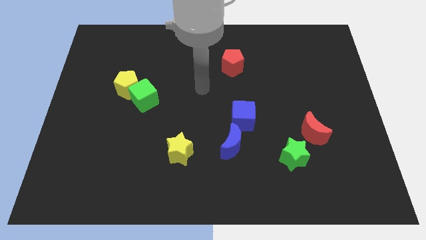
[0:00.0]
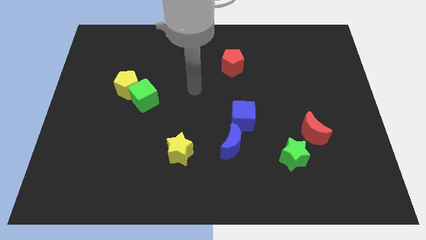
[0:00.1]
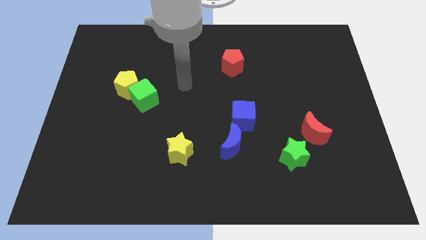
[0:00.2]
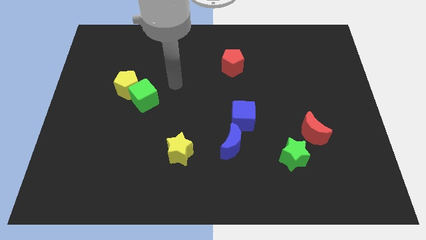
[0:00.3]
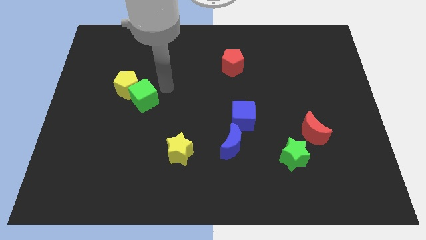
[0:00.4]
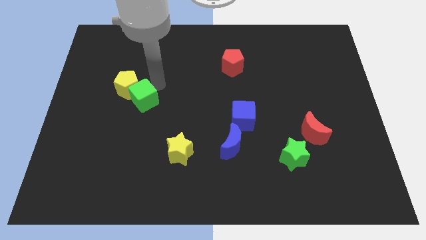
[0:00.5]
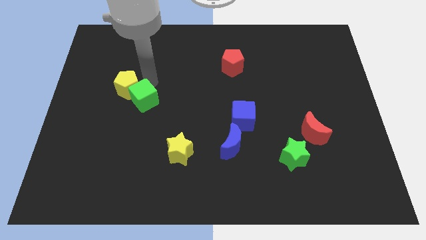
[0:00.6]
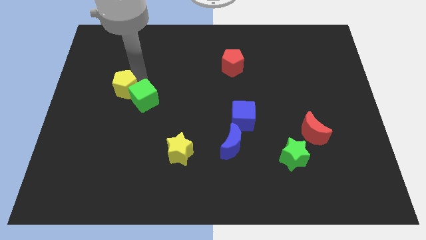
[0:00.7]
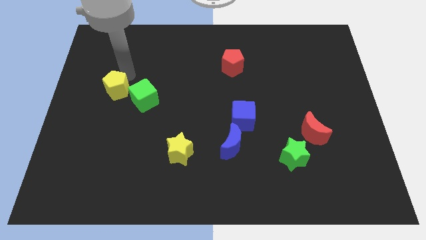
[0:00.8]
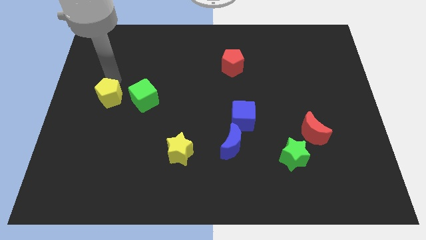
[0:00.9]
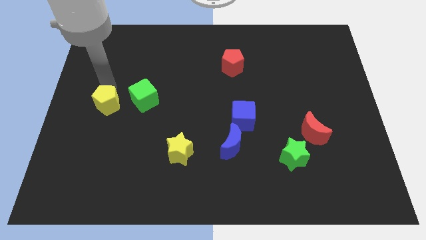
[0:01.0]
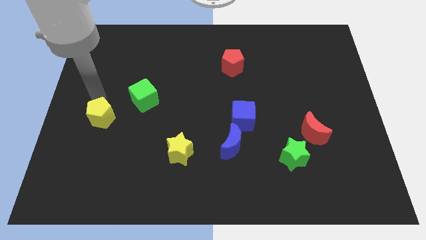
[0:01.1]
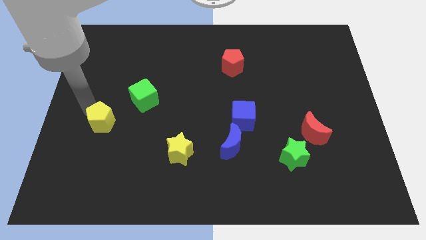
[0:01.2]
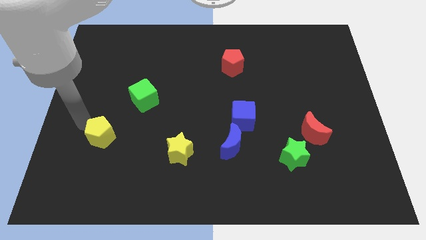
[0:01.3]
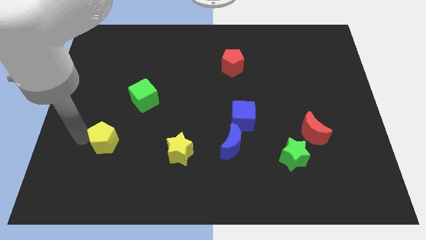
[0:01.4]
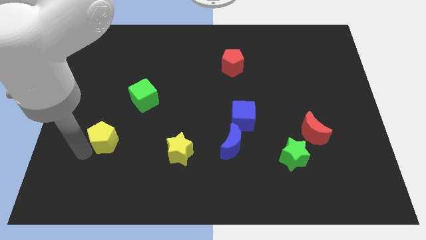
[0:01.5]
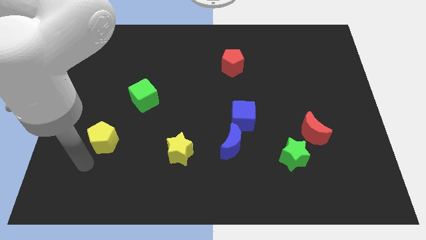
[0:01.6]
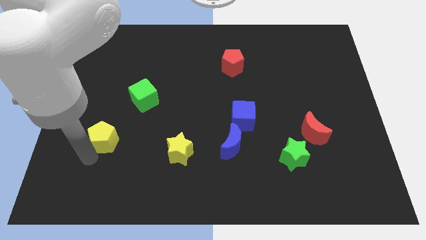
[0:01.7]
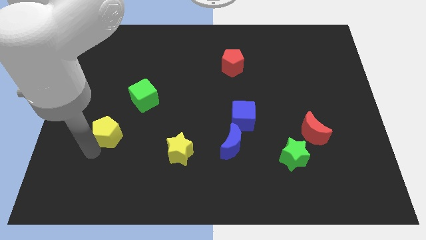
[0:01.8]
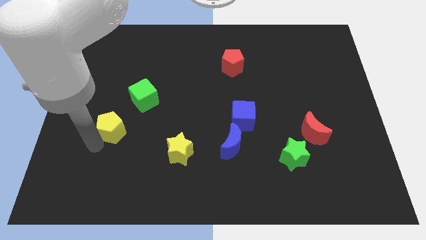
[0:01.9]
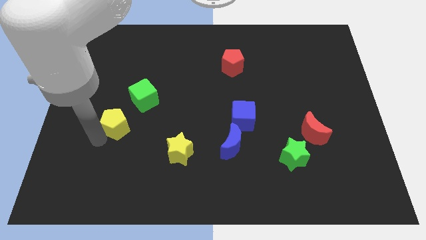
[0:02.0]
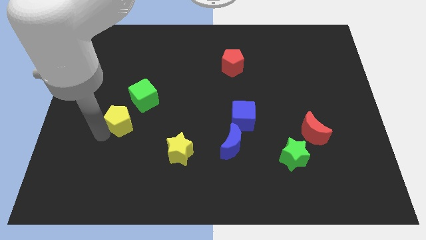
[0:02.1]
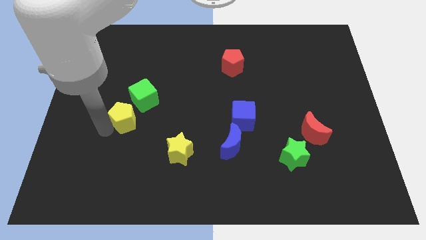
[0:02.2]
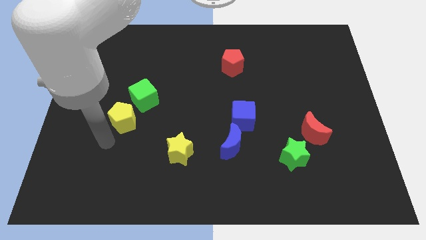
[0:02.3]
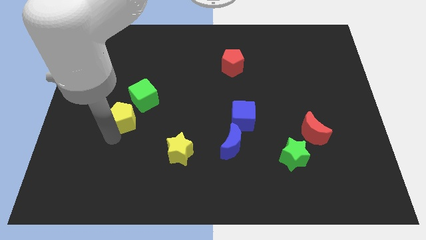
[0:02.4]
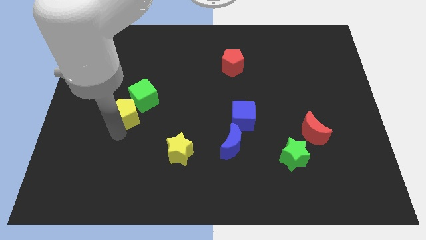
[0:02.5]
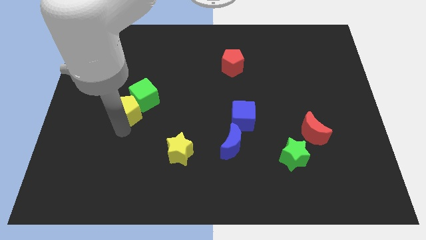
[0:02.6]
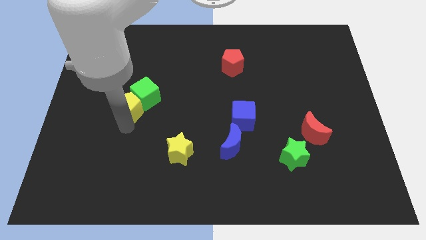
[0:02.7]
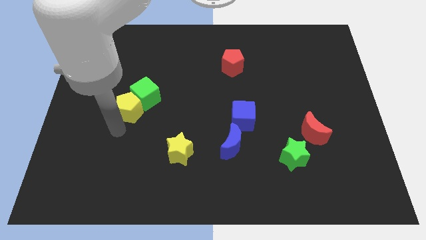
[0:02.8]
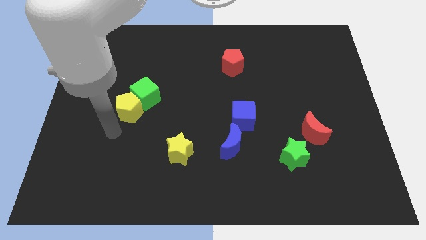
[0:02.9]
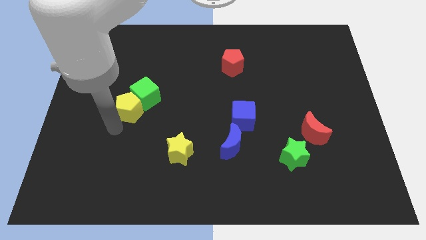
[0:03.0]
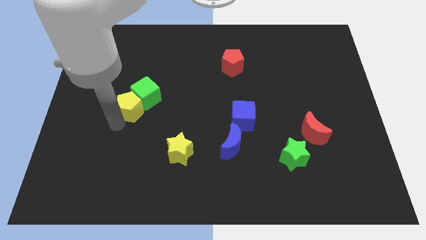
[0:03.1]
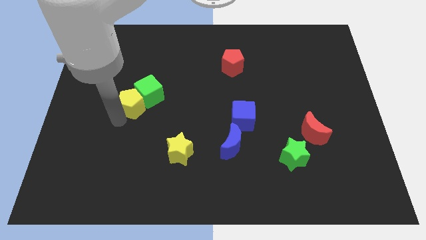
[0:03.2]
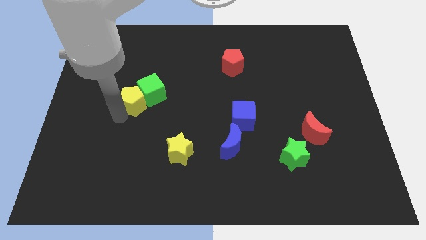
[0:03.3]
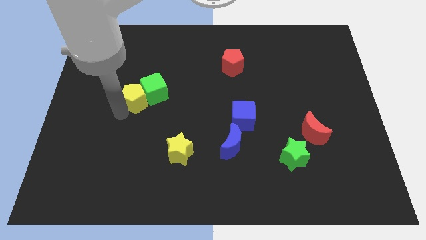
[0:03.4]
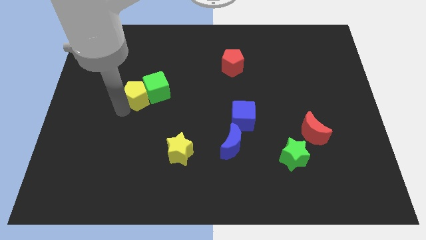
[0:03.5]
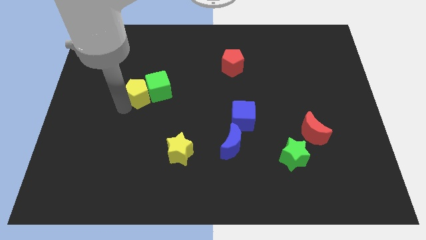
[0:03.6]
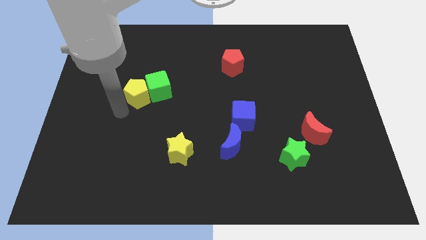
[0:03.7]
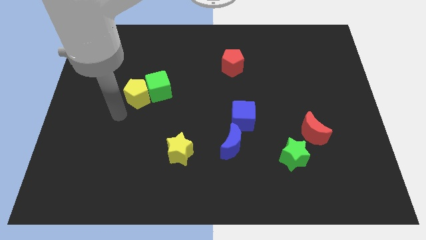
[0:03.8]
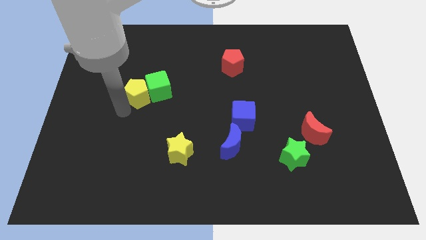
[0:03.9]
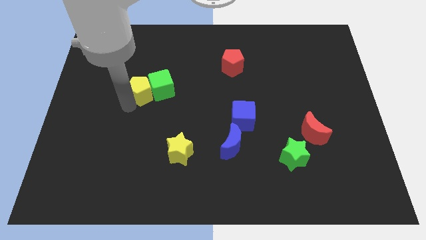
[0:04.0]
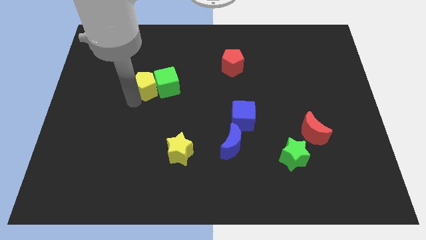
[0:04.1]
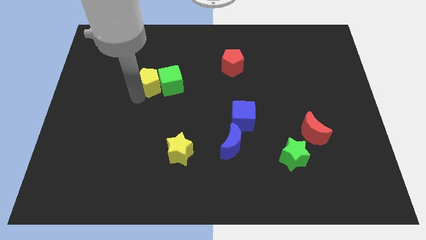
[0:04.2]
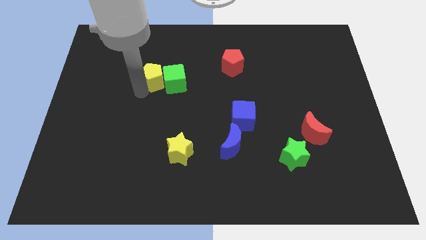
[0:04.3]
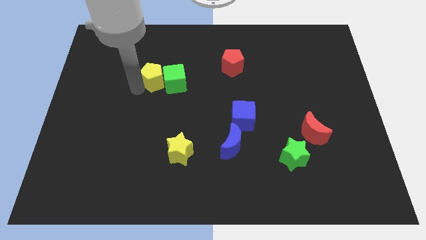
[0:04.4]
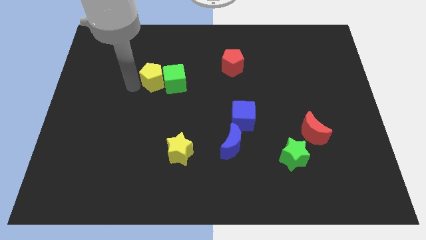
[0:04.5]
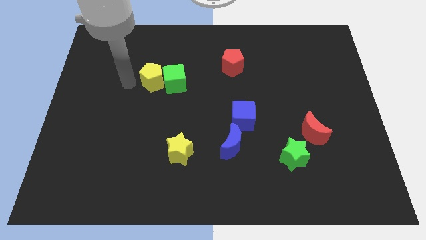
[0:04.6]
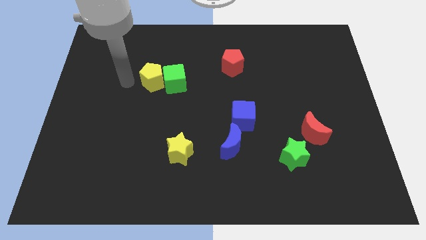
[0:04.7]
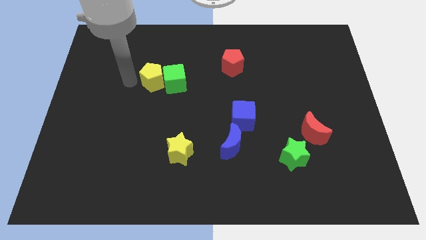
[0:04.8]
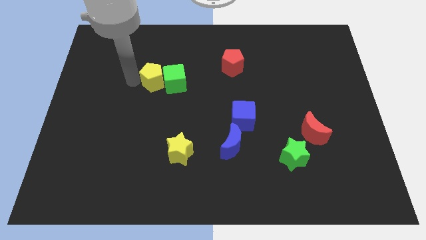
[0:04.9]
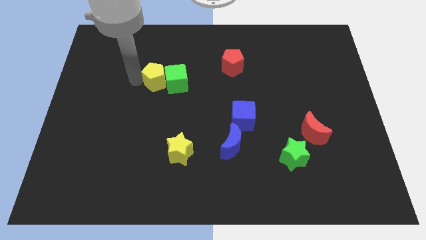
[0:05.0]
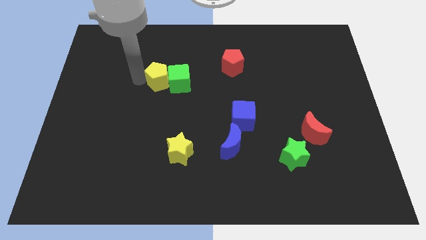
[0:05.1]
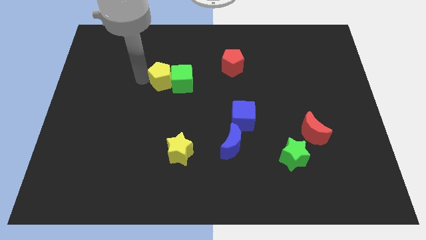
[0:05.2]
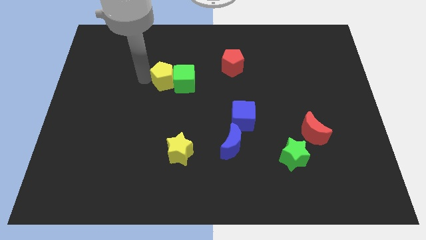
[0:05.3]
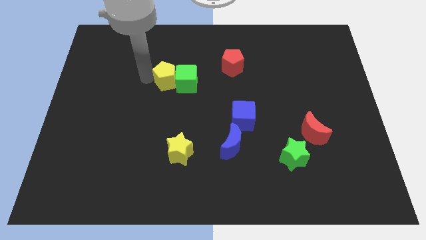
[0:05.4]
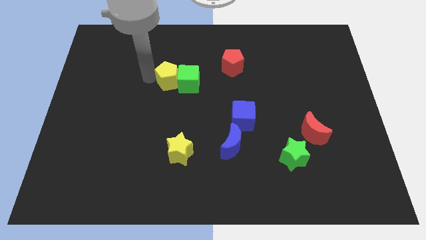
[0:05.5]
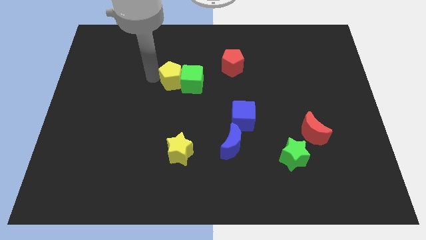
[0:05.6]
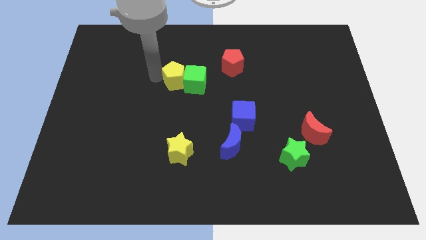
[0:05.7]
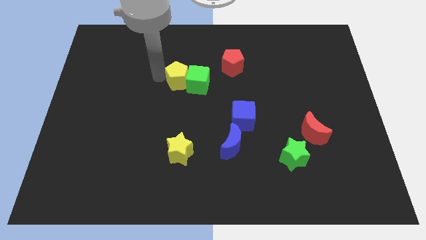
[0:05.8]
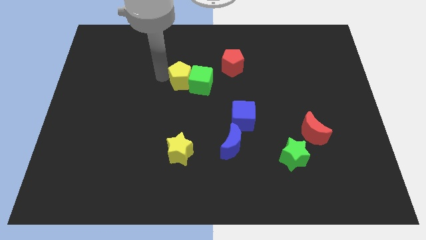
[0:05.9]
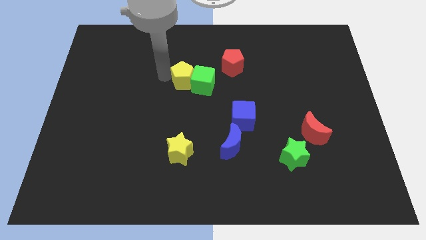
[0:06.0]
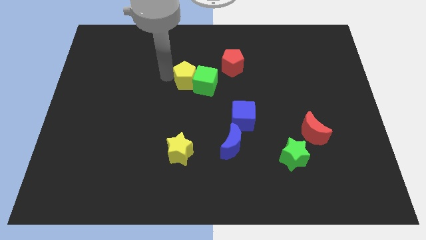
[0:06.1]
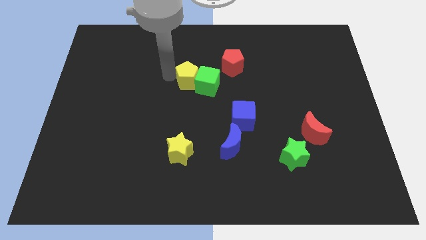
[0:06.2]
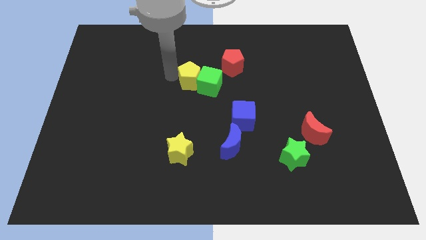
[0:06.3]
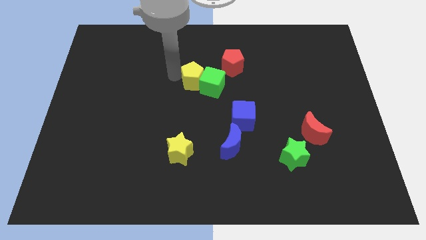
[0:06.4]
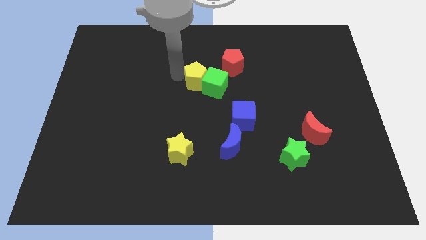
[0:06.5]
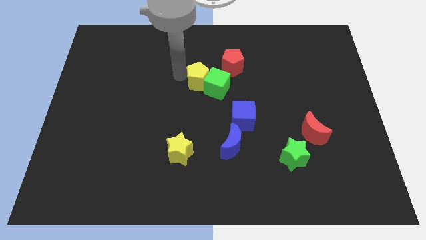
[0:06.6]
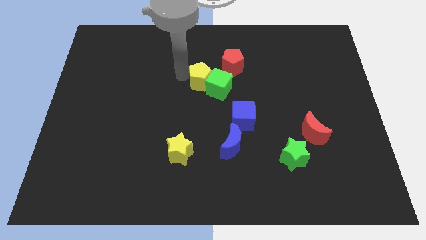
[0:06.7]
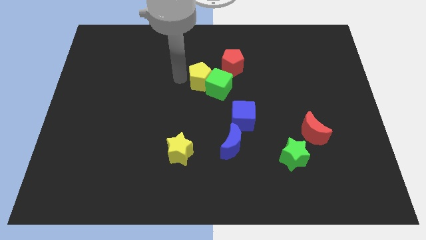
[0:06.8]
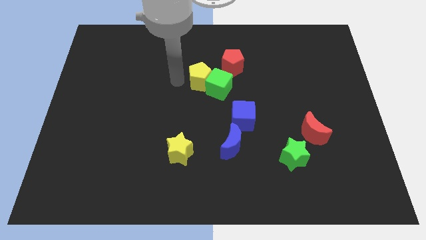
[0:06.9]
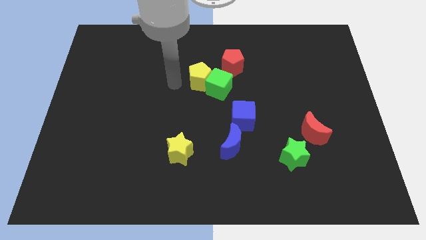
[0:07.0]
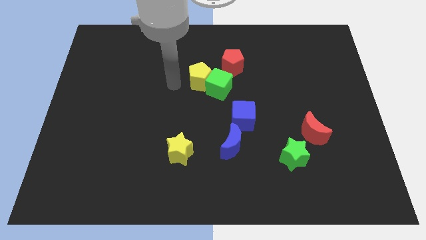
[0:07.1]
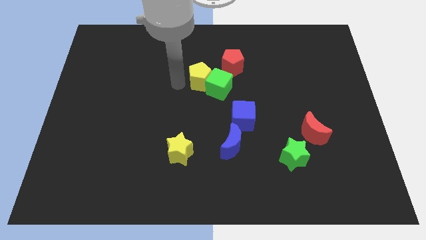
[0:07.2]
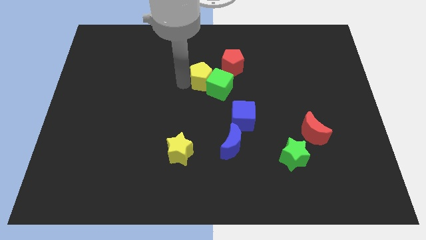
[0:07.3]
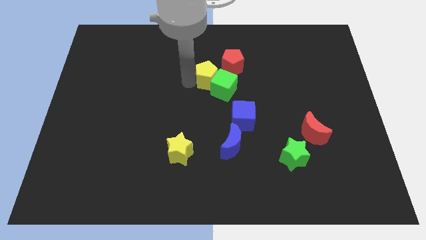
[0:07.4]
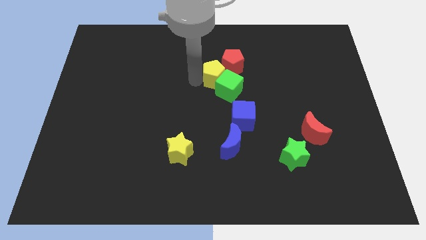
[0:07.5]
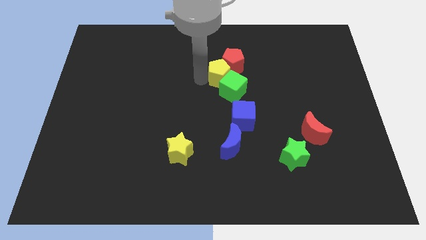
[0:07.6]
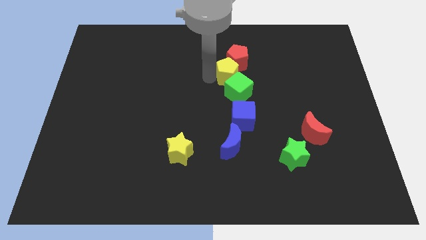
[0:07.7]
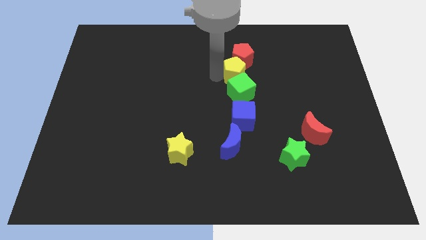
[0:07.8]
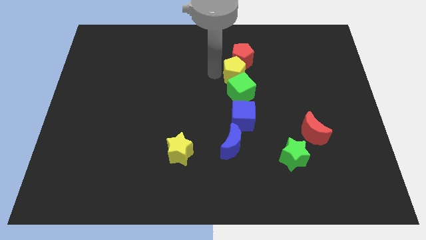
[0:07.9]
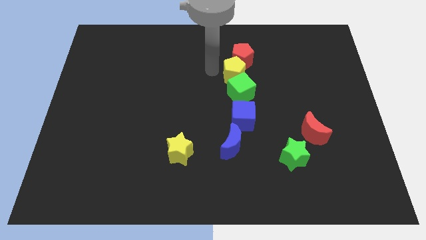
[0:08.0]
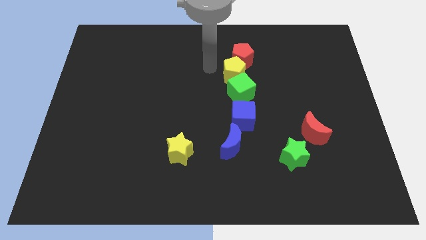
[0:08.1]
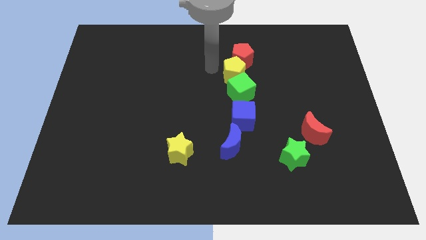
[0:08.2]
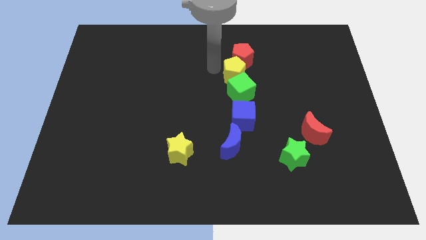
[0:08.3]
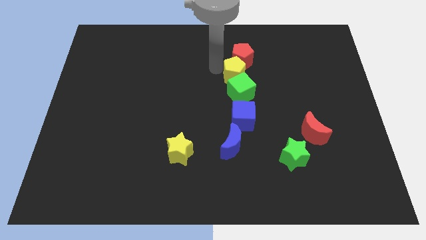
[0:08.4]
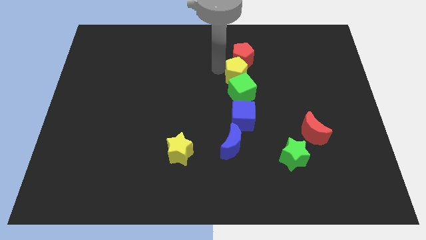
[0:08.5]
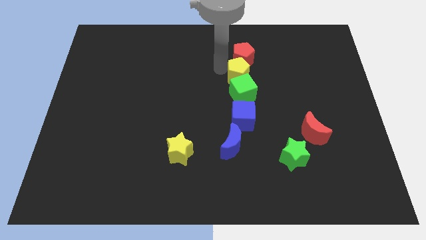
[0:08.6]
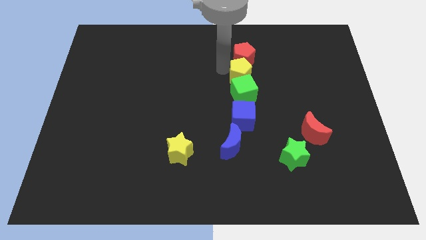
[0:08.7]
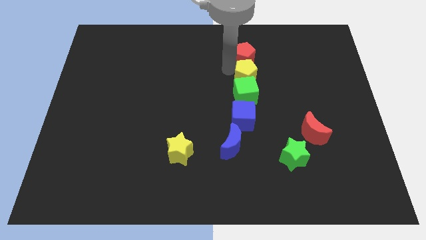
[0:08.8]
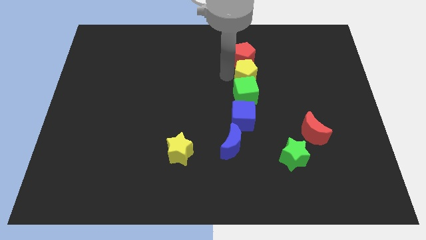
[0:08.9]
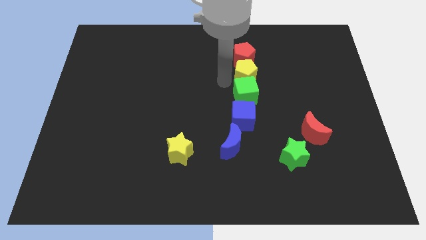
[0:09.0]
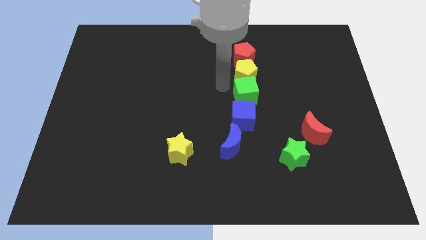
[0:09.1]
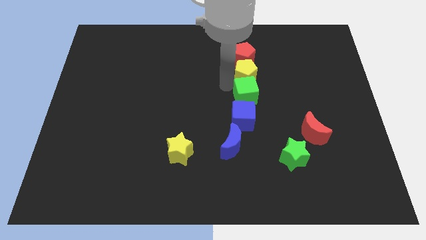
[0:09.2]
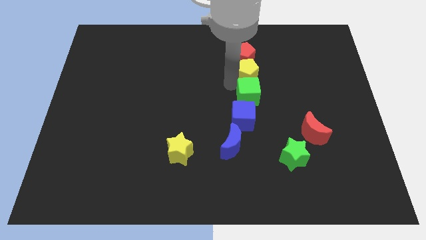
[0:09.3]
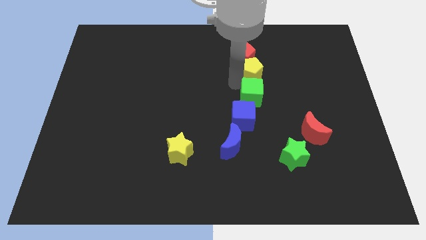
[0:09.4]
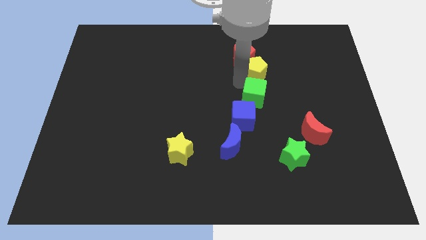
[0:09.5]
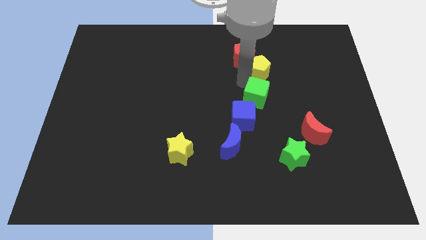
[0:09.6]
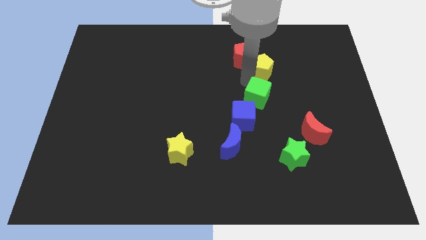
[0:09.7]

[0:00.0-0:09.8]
push the yellow pentagon just right of the red pentagon
